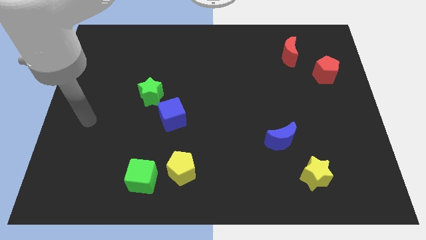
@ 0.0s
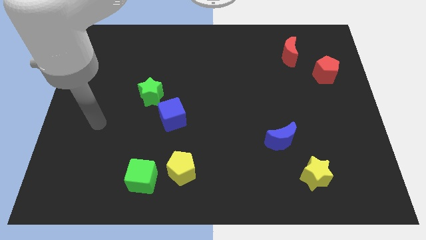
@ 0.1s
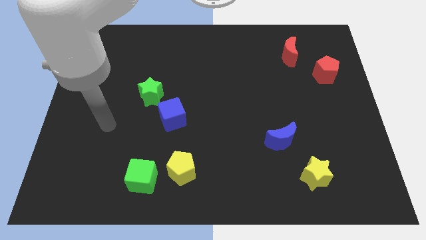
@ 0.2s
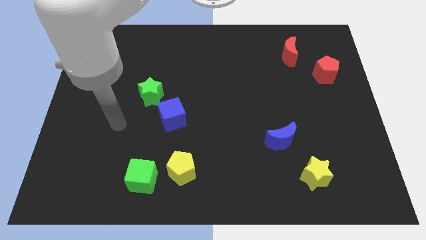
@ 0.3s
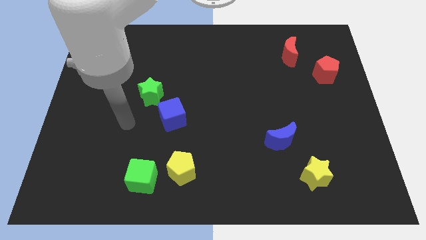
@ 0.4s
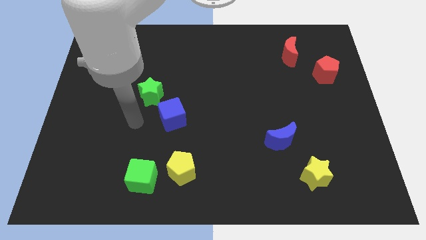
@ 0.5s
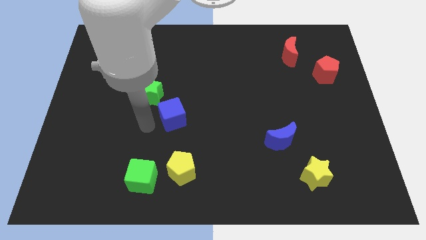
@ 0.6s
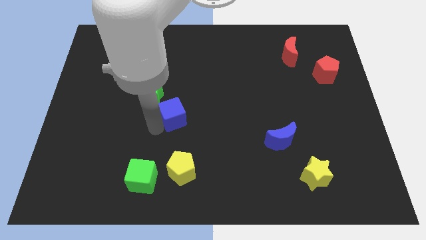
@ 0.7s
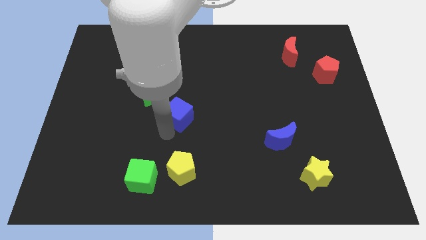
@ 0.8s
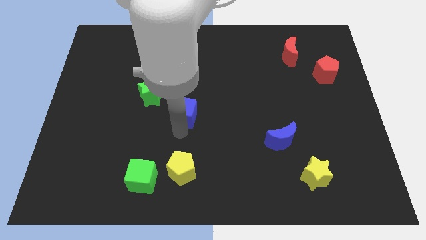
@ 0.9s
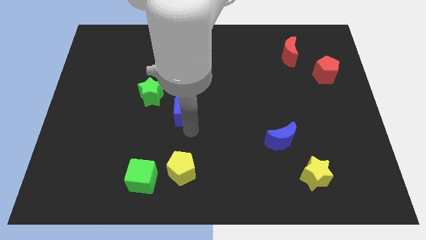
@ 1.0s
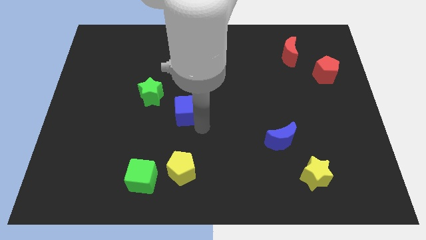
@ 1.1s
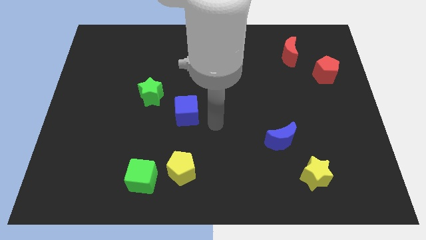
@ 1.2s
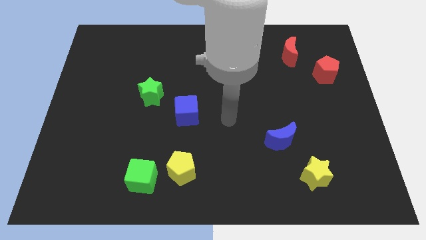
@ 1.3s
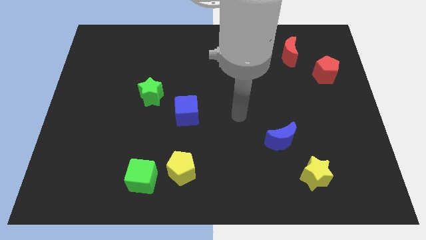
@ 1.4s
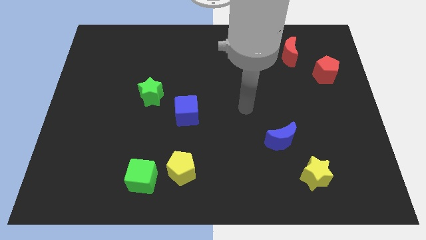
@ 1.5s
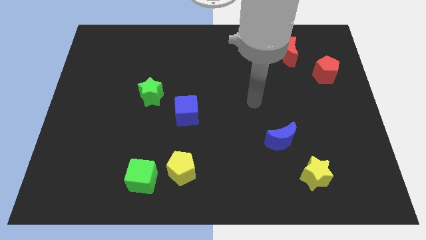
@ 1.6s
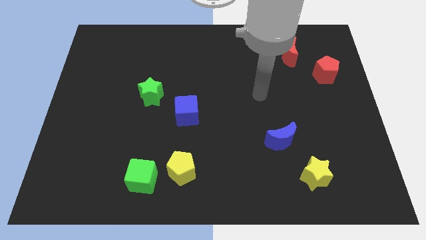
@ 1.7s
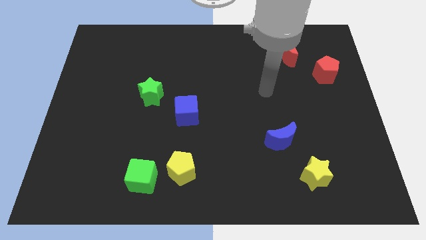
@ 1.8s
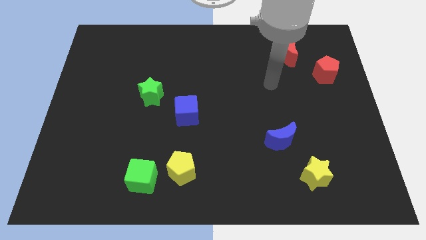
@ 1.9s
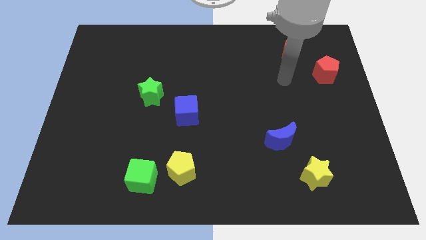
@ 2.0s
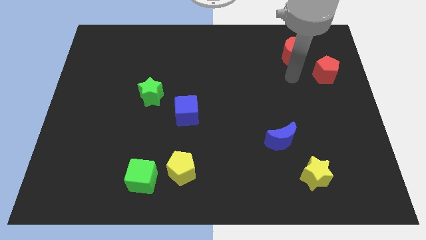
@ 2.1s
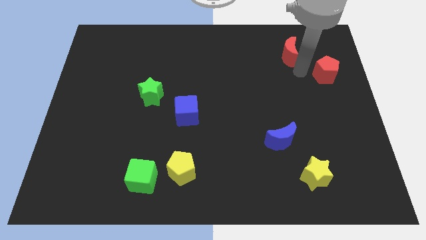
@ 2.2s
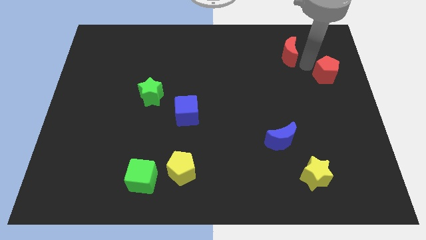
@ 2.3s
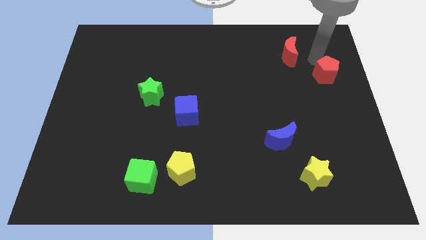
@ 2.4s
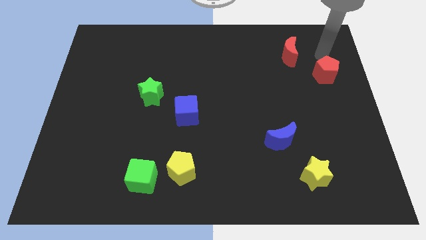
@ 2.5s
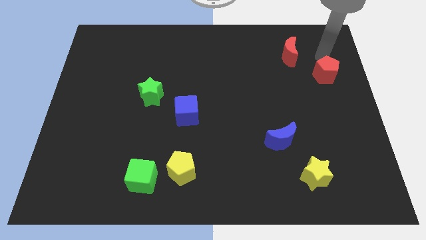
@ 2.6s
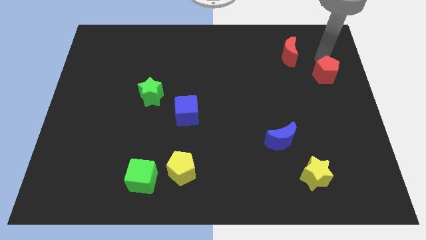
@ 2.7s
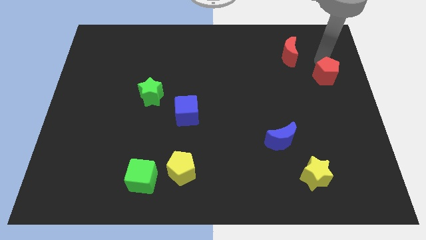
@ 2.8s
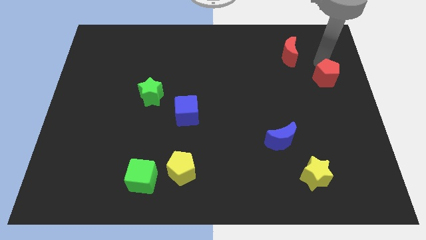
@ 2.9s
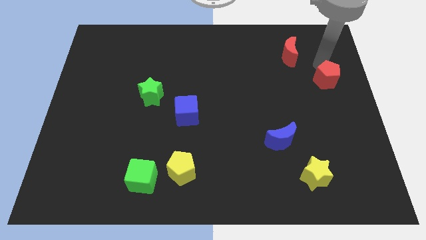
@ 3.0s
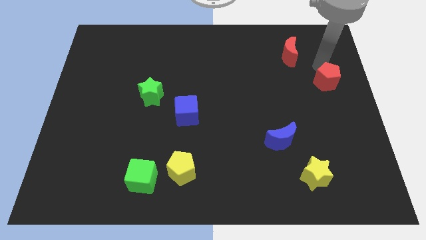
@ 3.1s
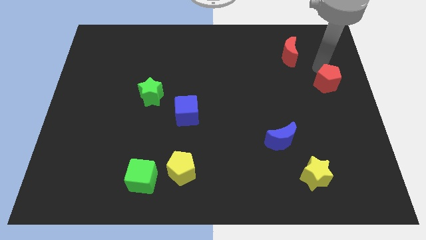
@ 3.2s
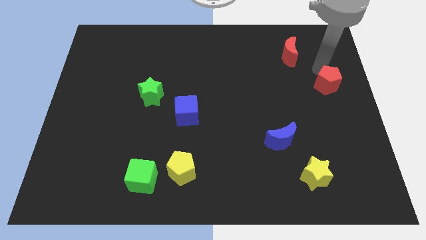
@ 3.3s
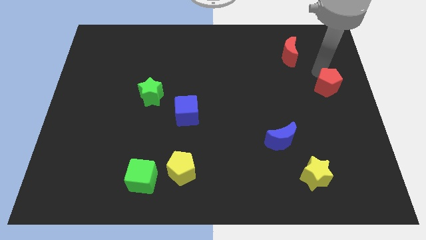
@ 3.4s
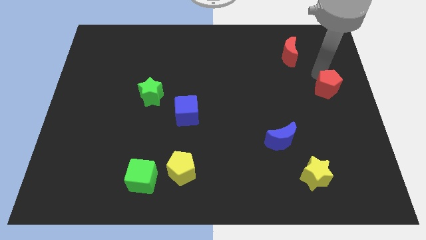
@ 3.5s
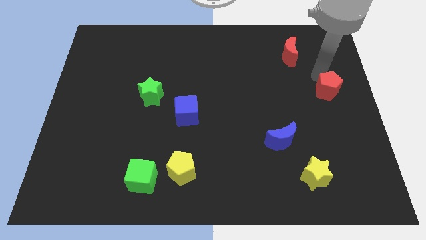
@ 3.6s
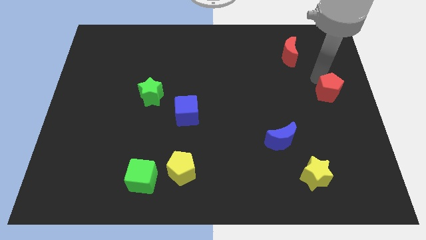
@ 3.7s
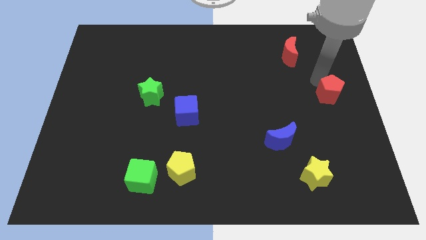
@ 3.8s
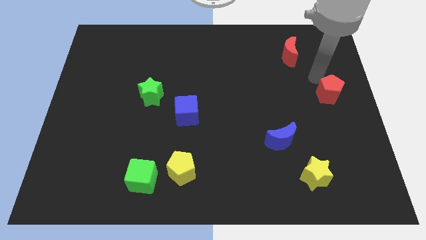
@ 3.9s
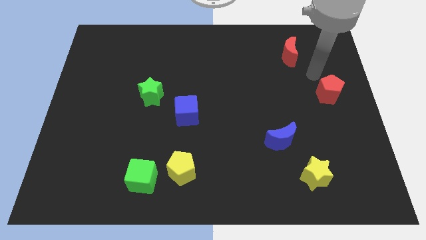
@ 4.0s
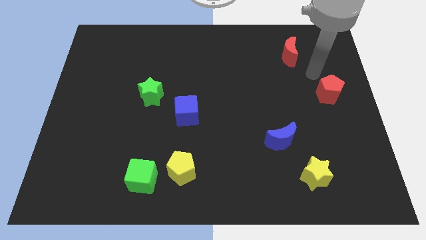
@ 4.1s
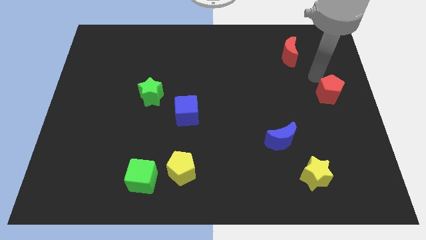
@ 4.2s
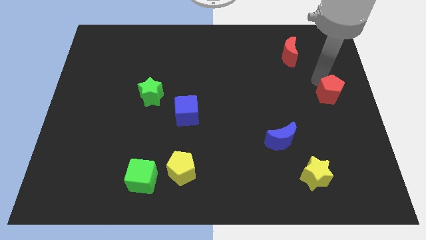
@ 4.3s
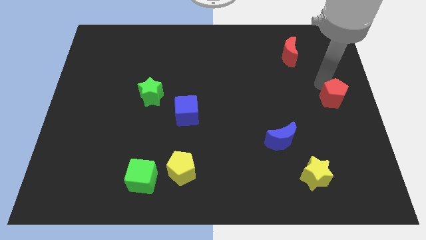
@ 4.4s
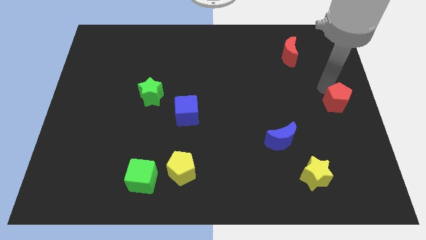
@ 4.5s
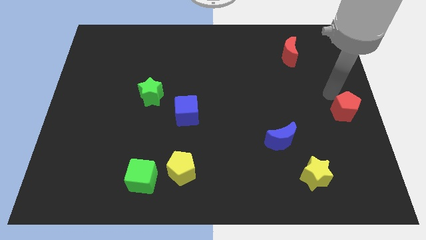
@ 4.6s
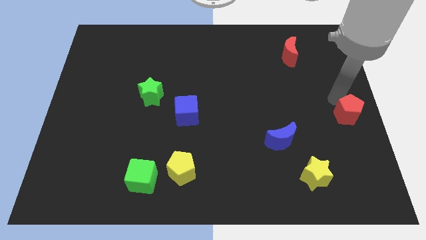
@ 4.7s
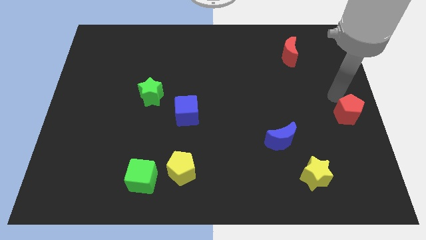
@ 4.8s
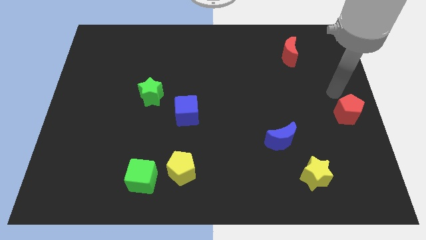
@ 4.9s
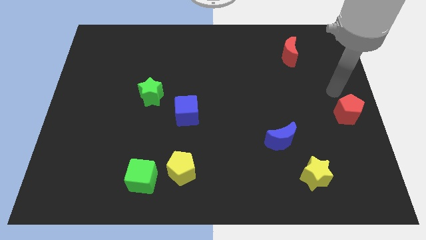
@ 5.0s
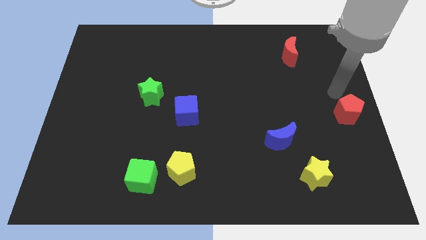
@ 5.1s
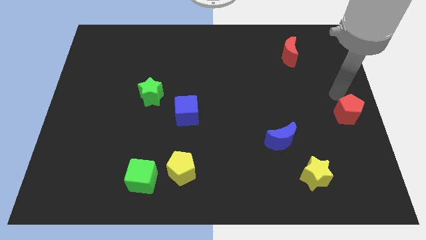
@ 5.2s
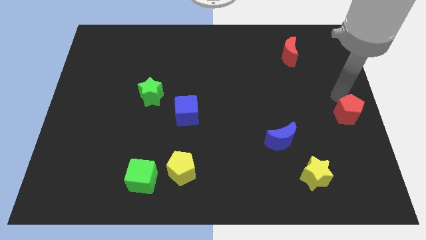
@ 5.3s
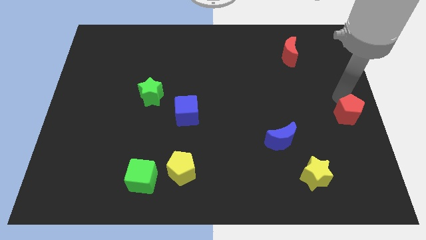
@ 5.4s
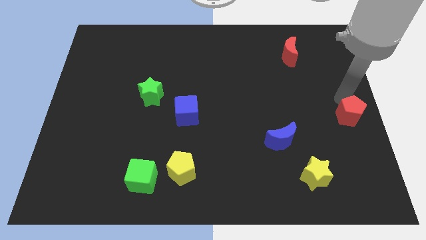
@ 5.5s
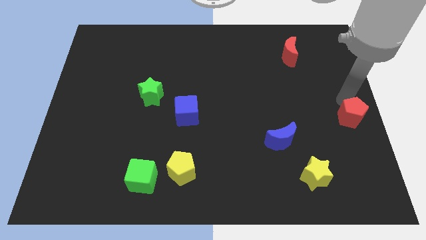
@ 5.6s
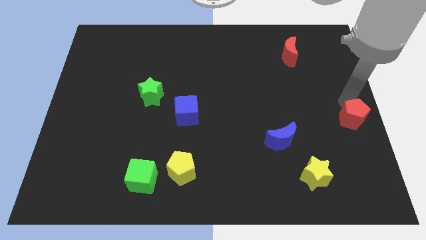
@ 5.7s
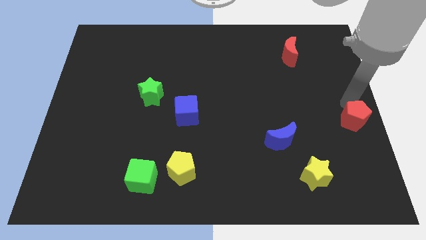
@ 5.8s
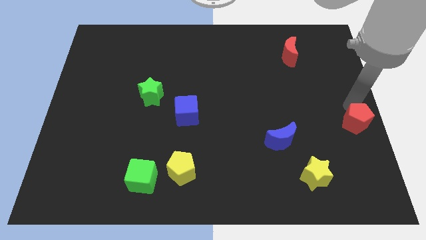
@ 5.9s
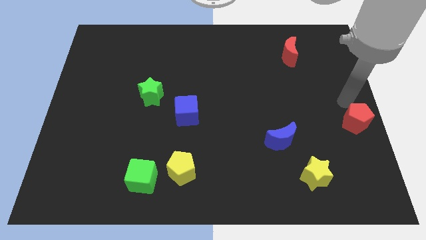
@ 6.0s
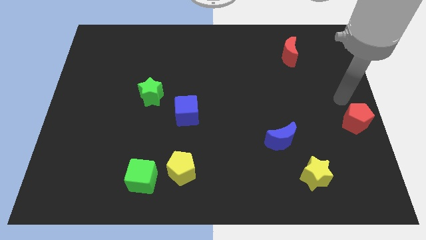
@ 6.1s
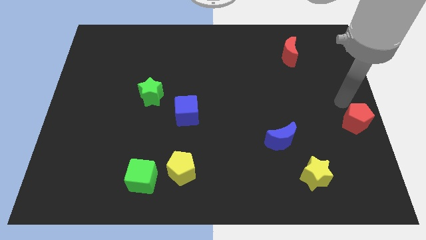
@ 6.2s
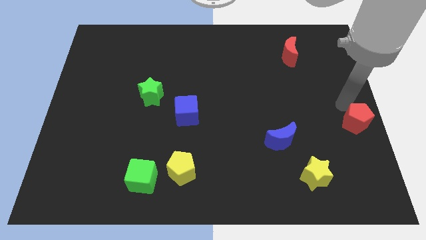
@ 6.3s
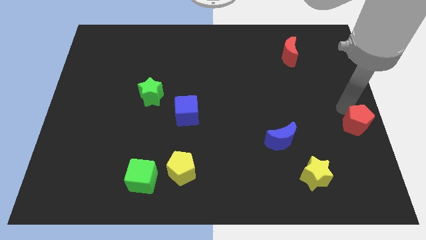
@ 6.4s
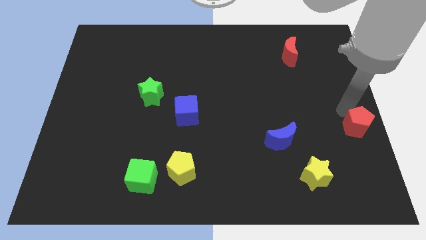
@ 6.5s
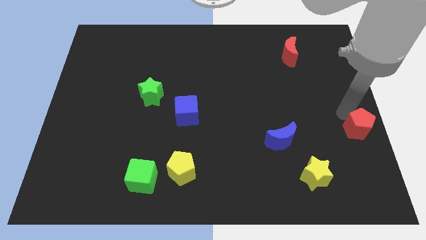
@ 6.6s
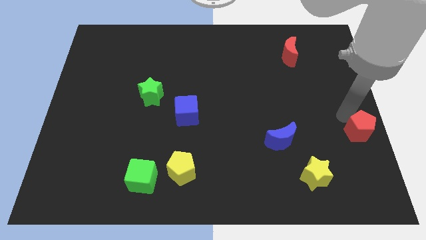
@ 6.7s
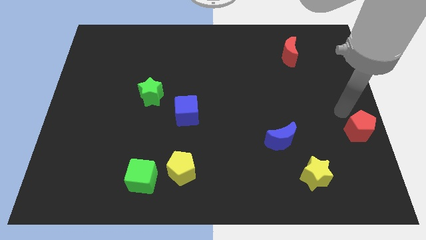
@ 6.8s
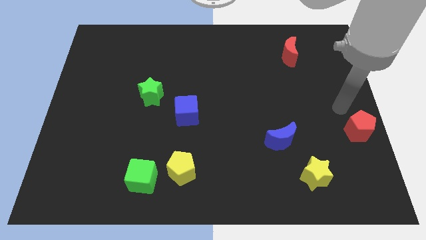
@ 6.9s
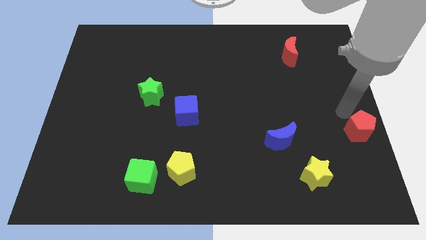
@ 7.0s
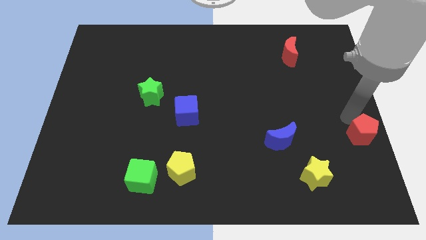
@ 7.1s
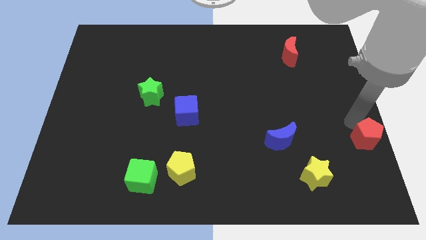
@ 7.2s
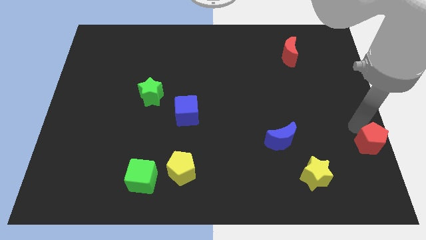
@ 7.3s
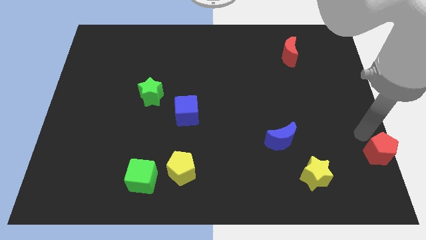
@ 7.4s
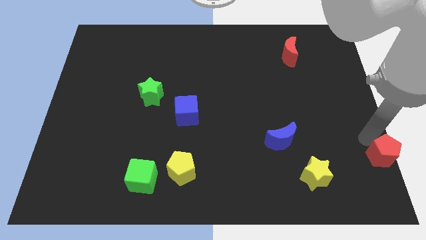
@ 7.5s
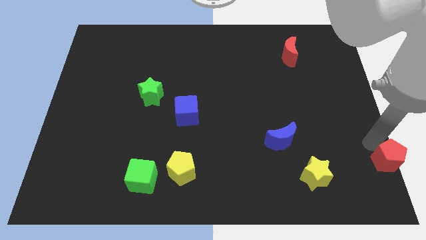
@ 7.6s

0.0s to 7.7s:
slide the red pentagon to the bottom right corner

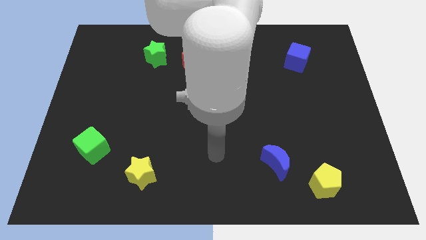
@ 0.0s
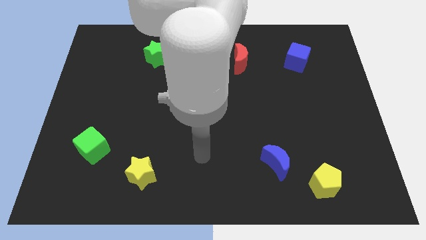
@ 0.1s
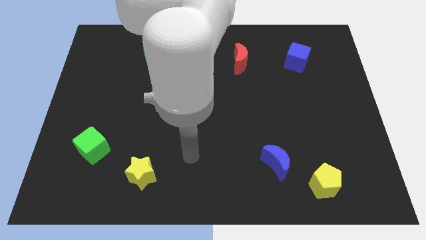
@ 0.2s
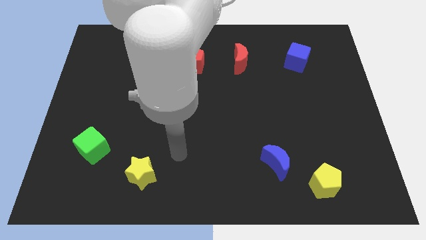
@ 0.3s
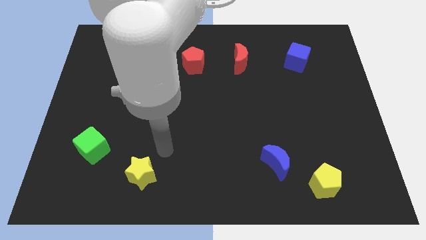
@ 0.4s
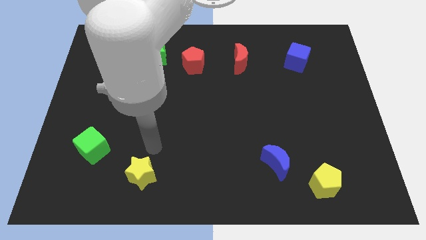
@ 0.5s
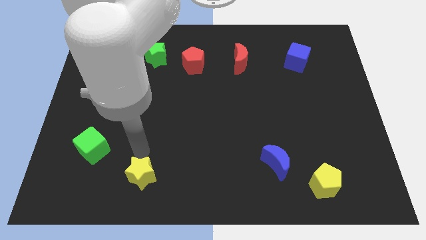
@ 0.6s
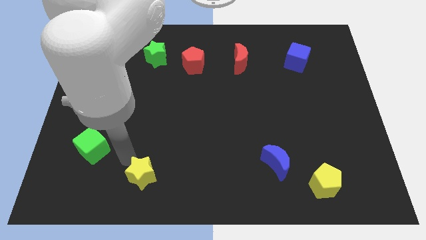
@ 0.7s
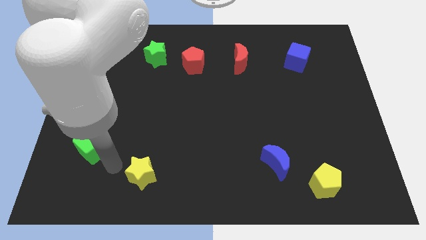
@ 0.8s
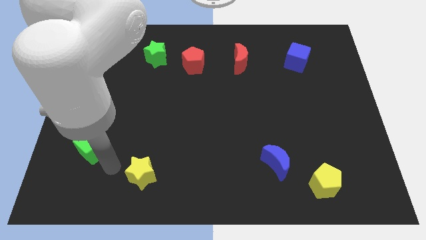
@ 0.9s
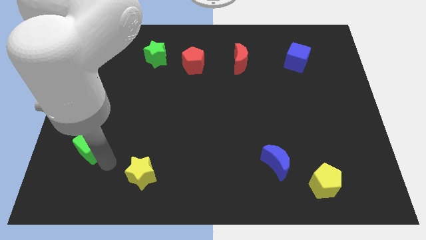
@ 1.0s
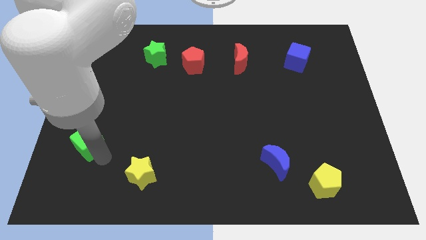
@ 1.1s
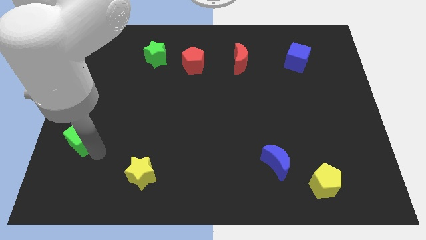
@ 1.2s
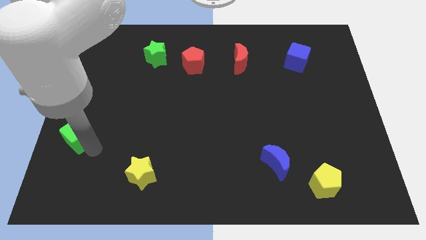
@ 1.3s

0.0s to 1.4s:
slide the green cube to the center left
